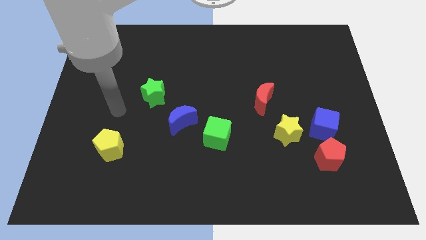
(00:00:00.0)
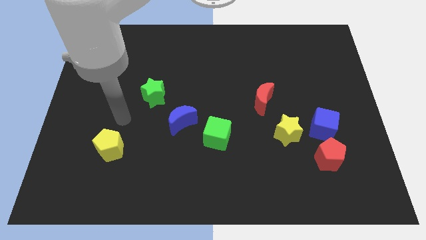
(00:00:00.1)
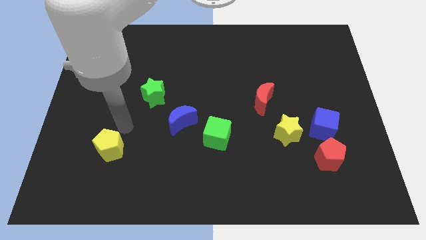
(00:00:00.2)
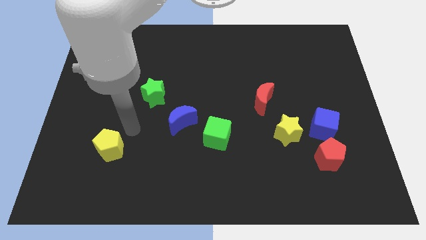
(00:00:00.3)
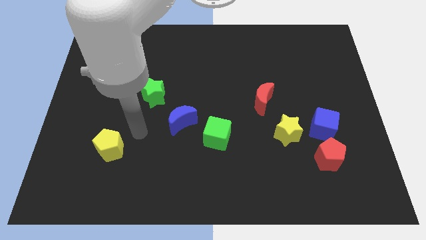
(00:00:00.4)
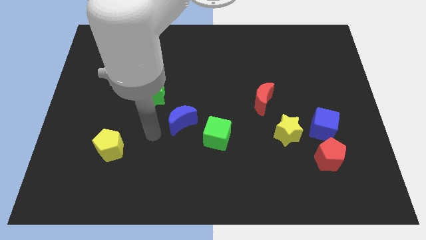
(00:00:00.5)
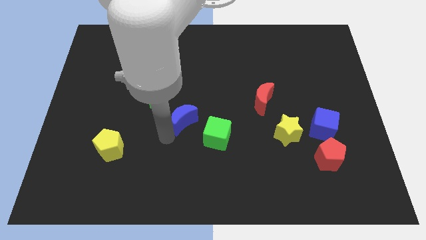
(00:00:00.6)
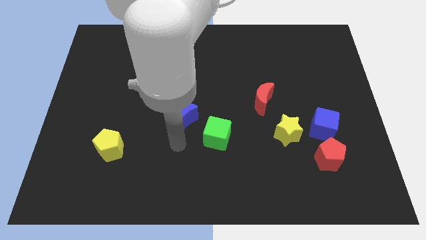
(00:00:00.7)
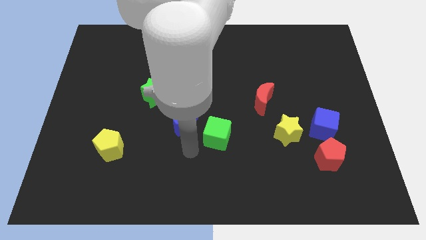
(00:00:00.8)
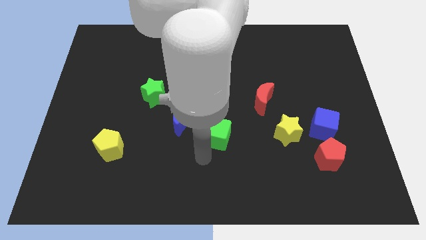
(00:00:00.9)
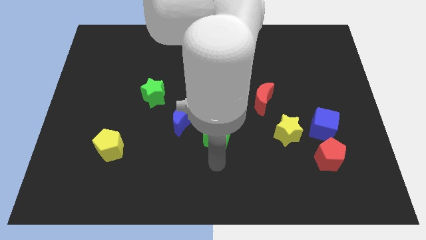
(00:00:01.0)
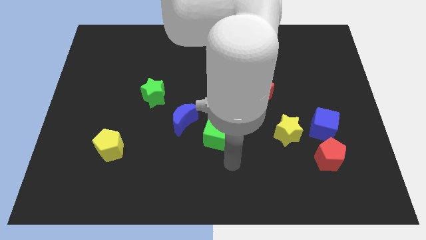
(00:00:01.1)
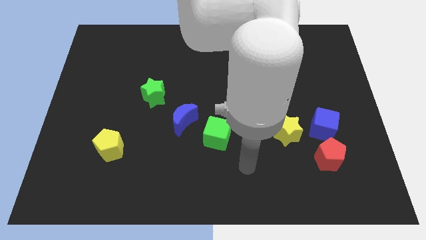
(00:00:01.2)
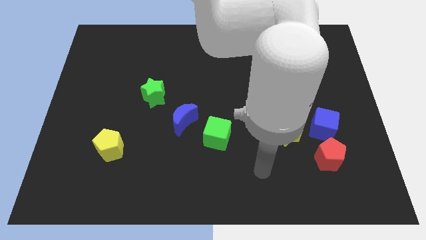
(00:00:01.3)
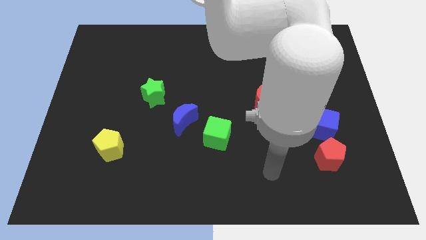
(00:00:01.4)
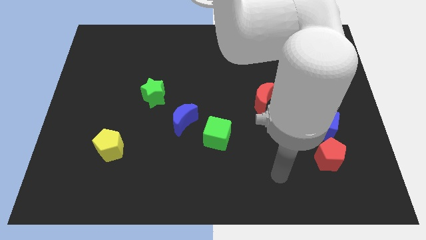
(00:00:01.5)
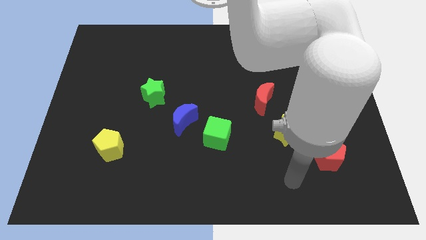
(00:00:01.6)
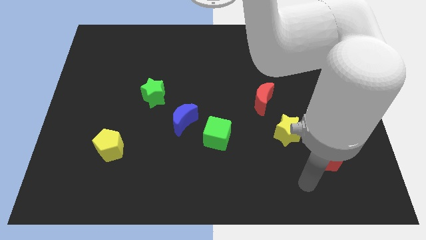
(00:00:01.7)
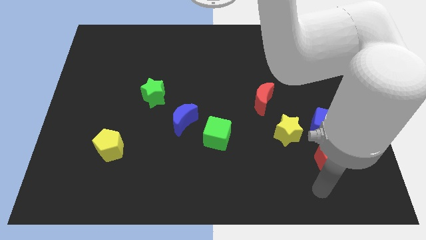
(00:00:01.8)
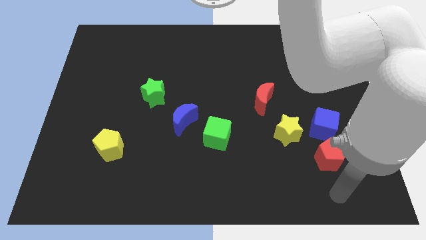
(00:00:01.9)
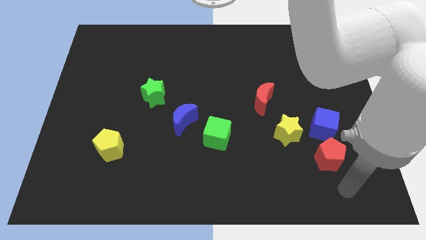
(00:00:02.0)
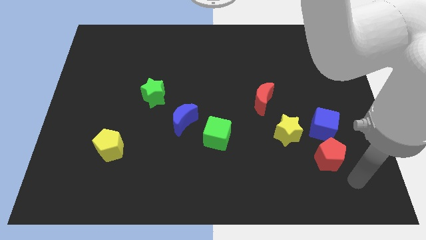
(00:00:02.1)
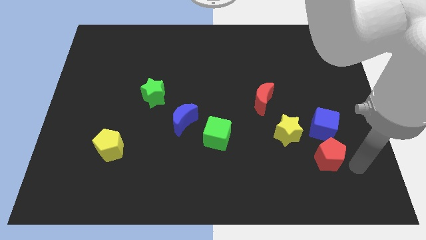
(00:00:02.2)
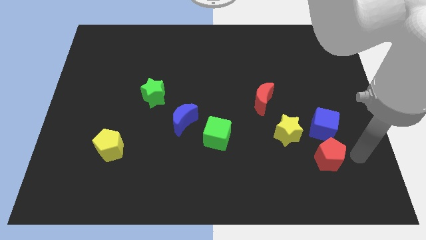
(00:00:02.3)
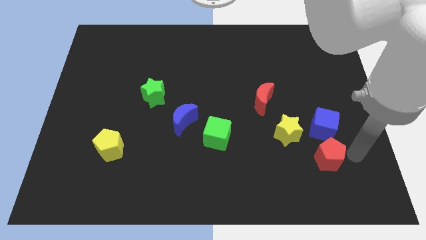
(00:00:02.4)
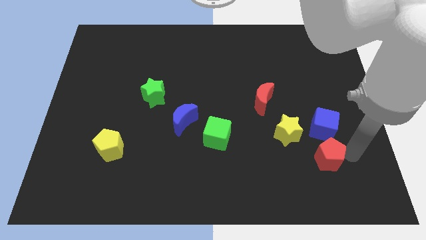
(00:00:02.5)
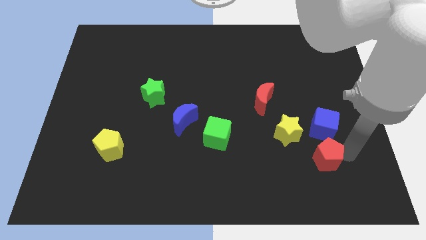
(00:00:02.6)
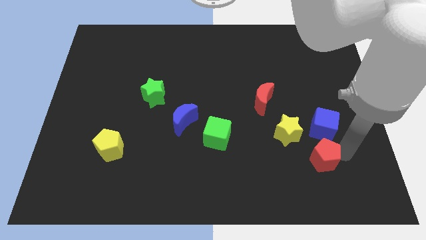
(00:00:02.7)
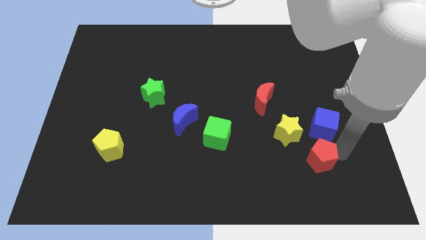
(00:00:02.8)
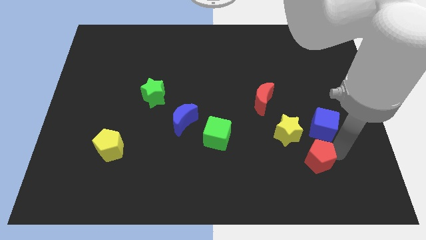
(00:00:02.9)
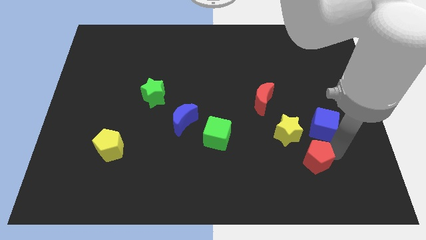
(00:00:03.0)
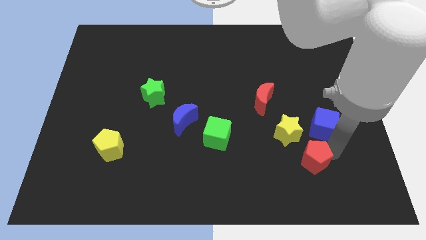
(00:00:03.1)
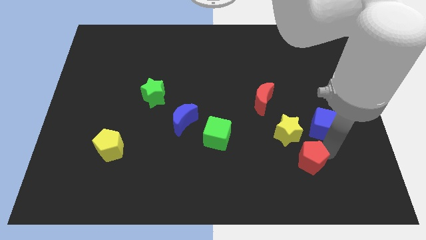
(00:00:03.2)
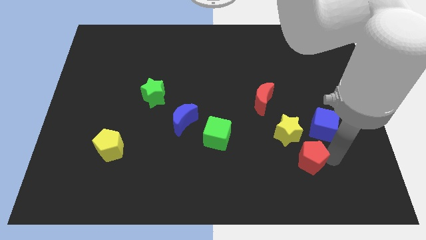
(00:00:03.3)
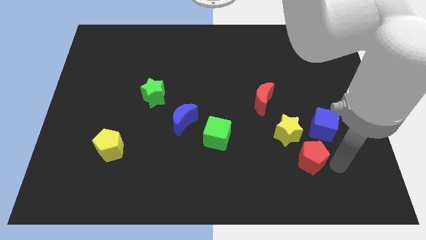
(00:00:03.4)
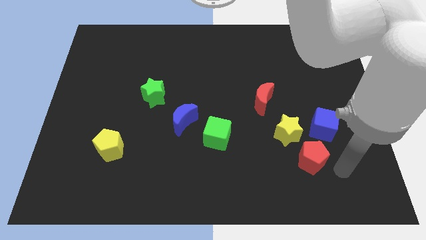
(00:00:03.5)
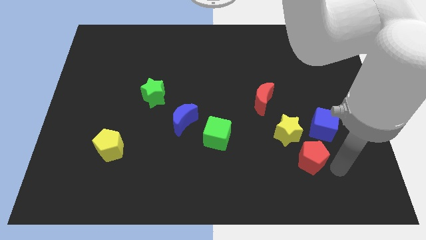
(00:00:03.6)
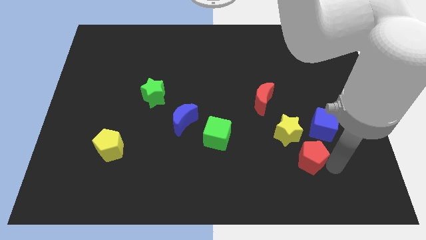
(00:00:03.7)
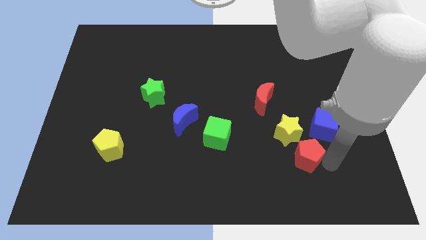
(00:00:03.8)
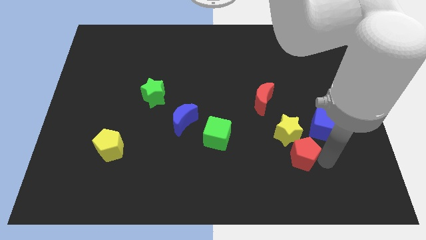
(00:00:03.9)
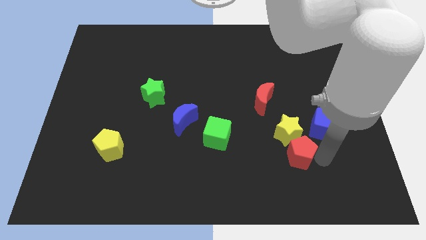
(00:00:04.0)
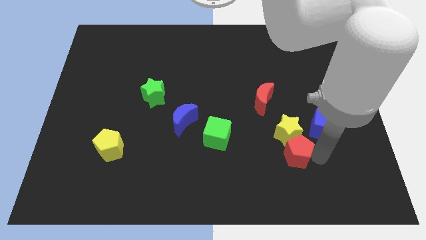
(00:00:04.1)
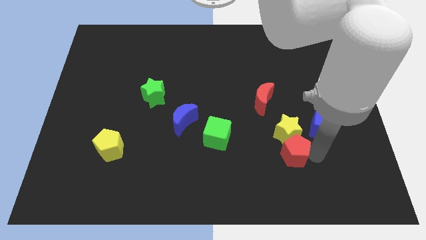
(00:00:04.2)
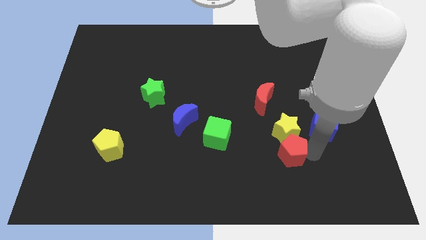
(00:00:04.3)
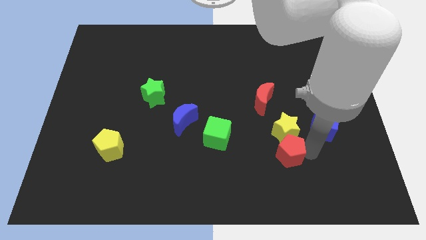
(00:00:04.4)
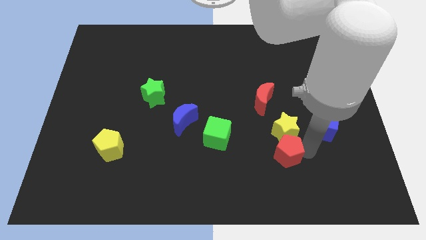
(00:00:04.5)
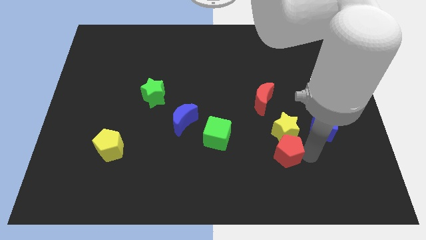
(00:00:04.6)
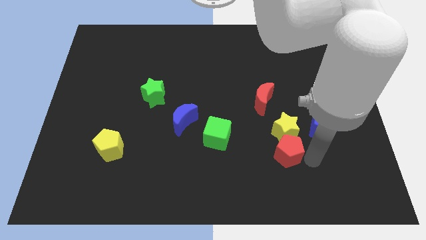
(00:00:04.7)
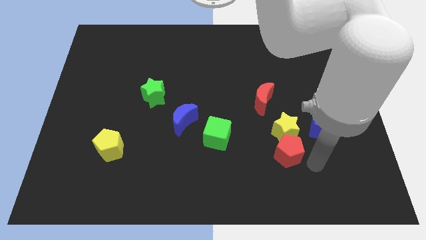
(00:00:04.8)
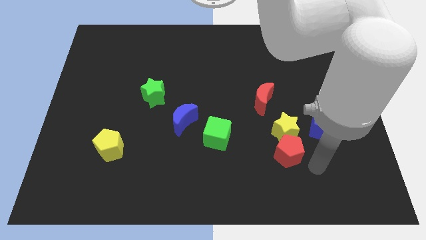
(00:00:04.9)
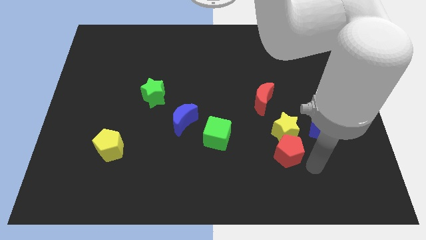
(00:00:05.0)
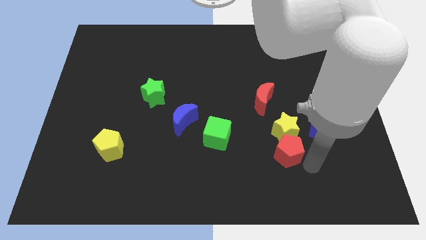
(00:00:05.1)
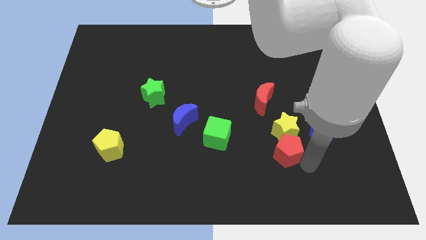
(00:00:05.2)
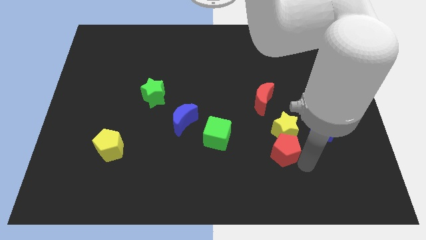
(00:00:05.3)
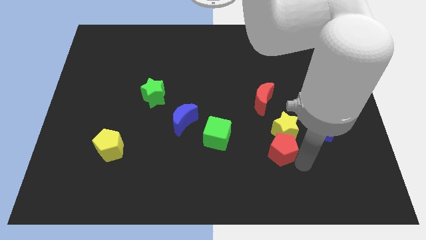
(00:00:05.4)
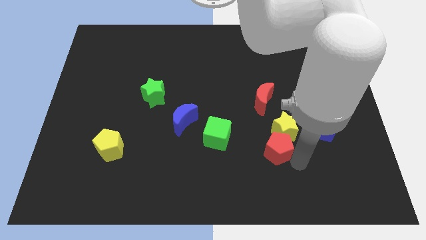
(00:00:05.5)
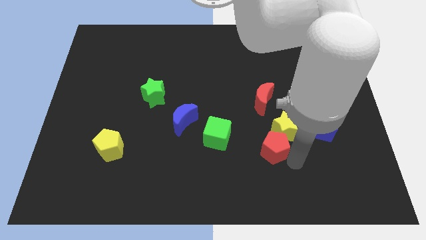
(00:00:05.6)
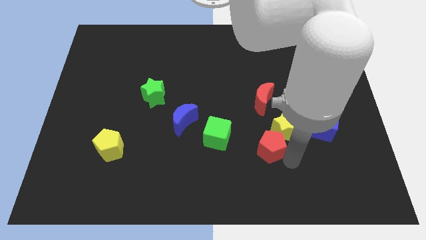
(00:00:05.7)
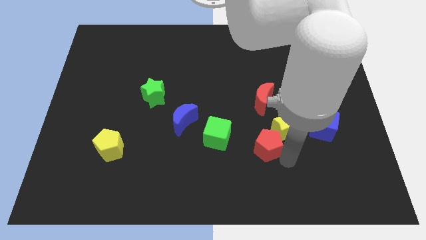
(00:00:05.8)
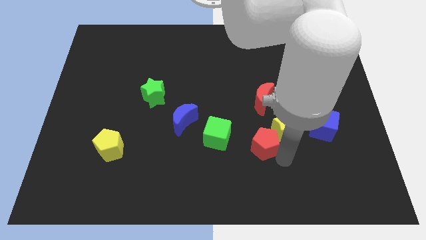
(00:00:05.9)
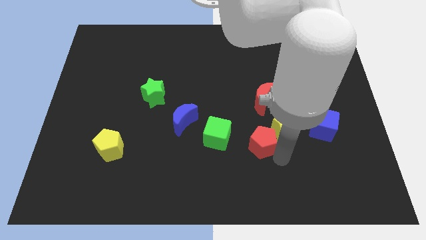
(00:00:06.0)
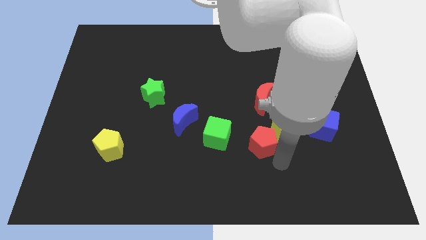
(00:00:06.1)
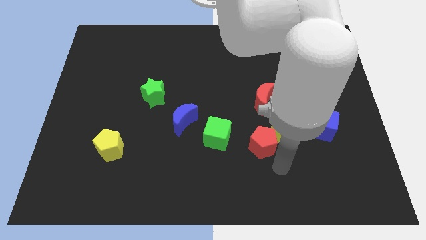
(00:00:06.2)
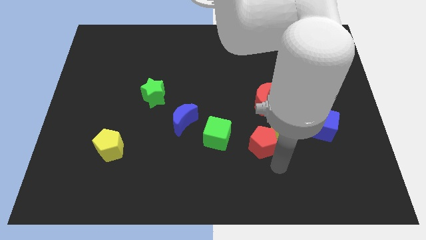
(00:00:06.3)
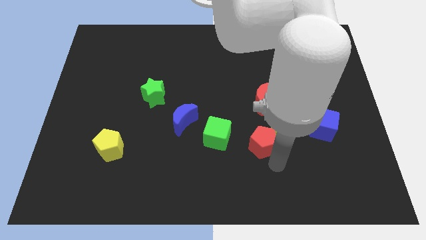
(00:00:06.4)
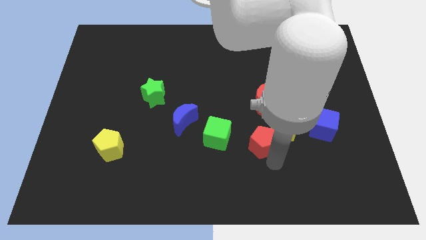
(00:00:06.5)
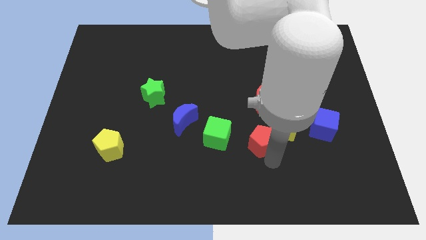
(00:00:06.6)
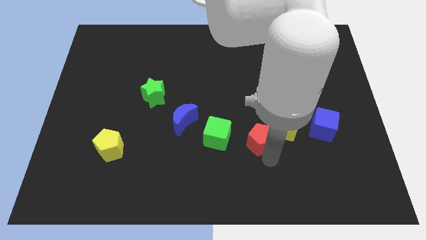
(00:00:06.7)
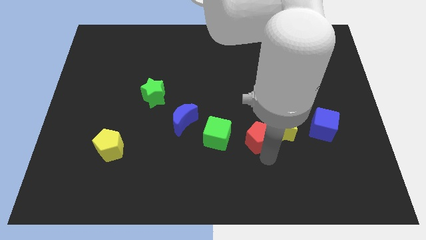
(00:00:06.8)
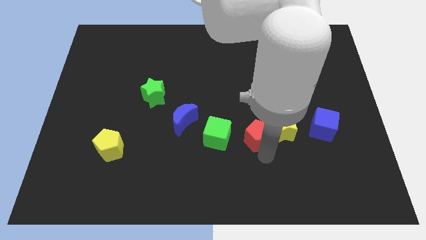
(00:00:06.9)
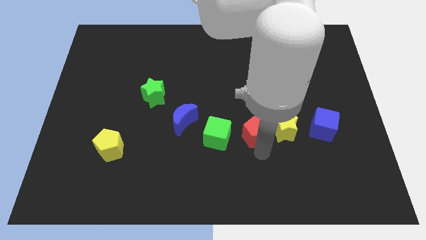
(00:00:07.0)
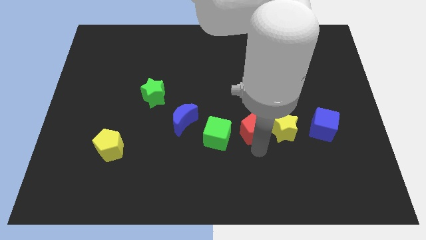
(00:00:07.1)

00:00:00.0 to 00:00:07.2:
put the red pentagon to the center of the board
